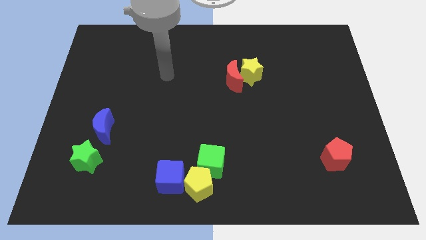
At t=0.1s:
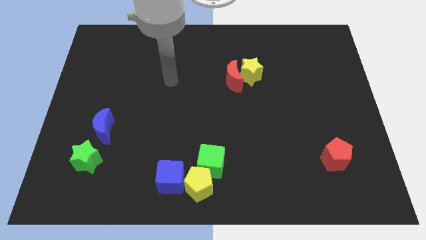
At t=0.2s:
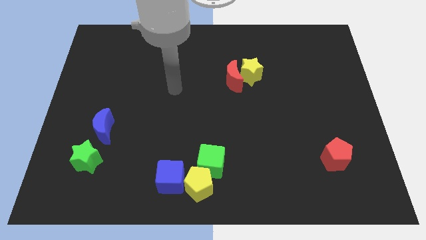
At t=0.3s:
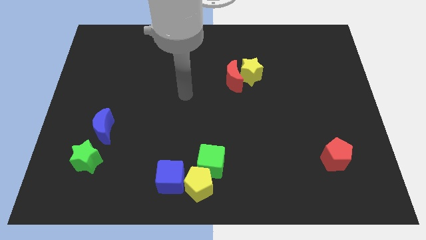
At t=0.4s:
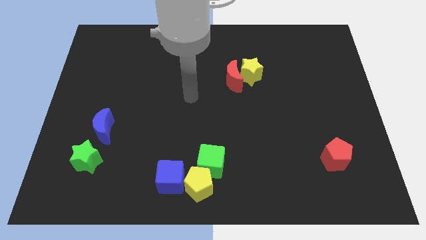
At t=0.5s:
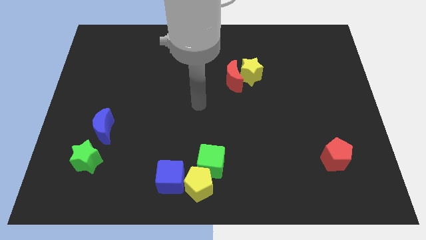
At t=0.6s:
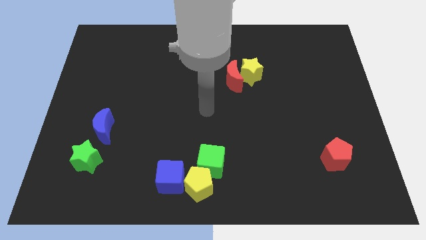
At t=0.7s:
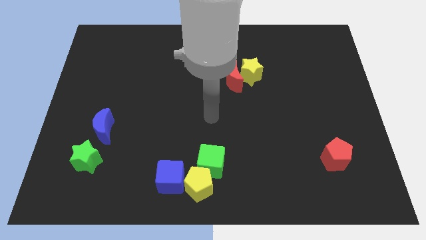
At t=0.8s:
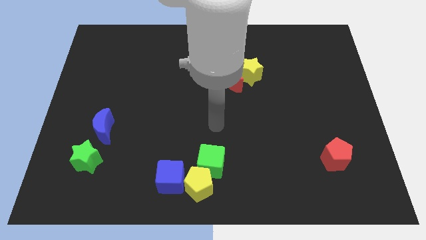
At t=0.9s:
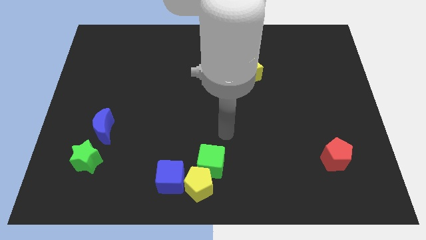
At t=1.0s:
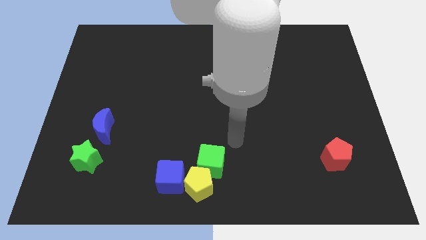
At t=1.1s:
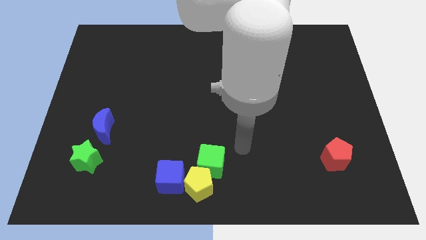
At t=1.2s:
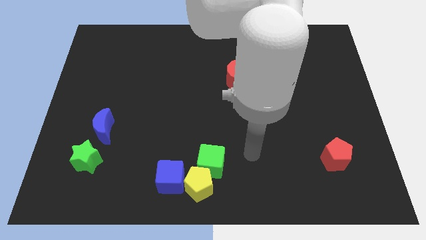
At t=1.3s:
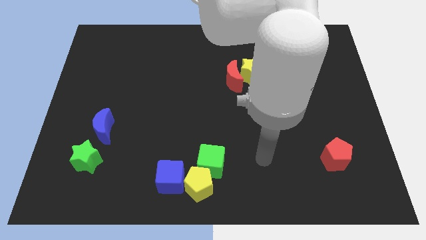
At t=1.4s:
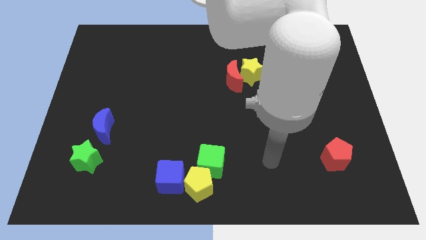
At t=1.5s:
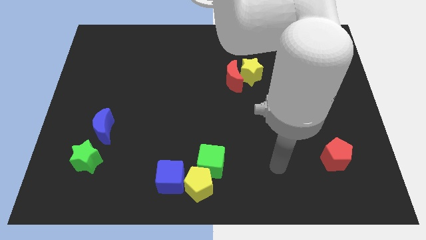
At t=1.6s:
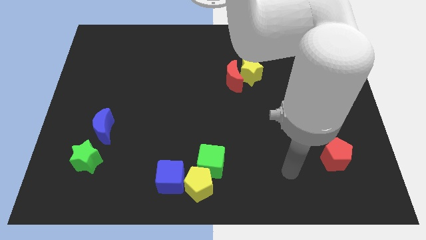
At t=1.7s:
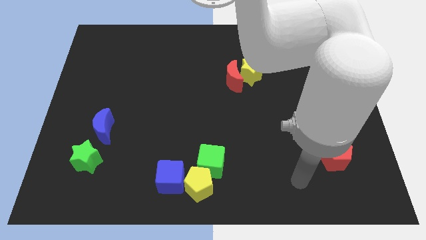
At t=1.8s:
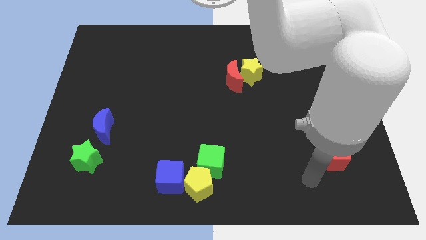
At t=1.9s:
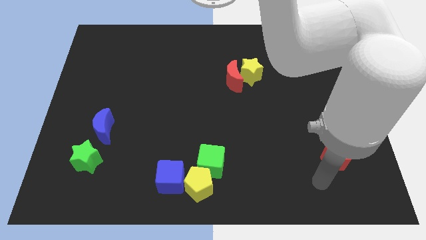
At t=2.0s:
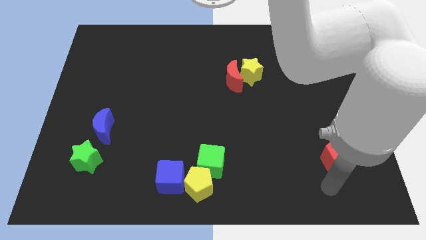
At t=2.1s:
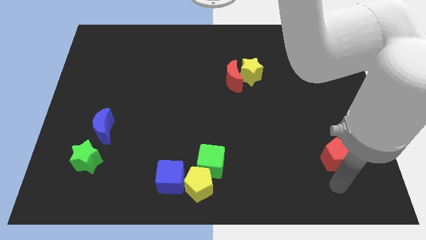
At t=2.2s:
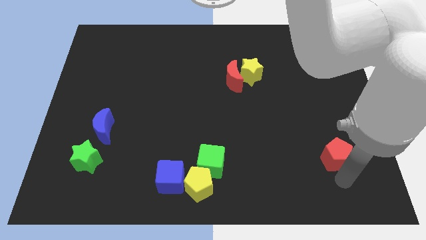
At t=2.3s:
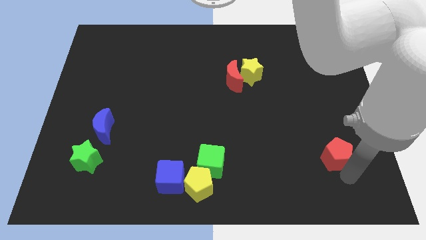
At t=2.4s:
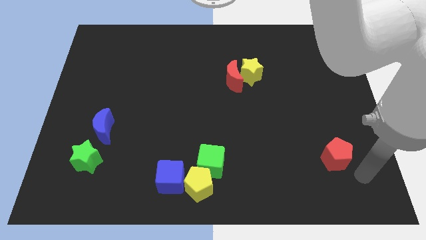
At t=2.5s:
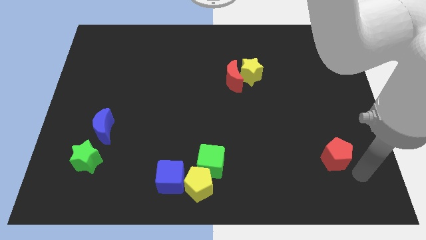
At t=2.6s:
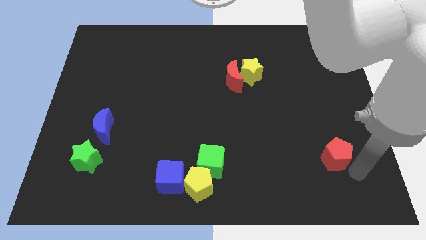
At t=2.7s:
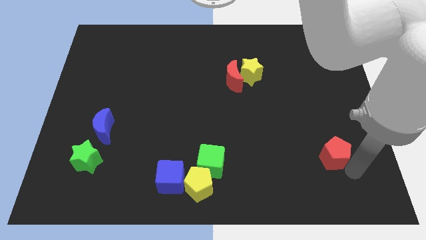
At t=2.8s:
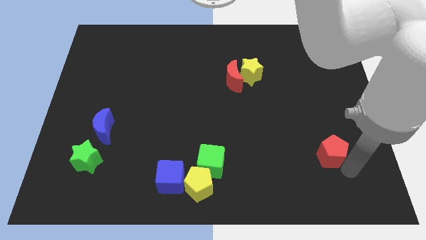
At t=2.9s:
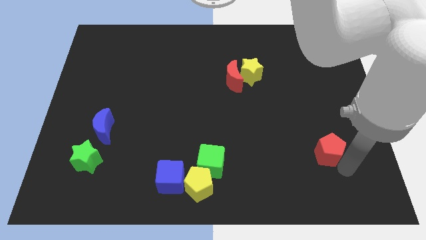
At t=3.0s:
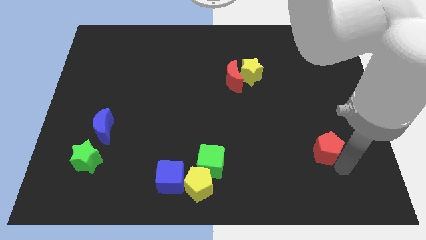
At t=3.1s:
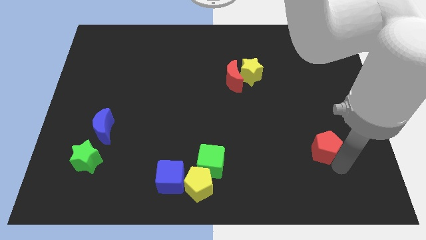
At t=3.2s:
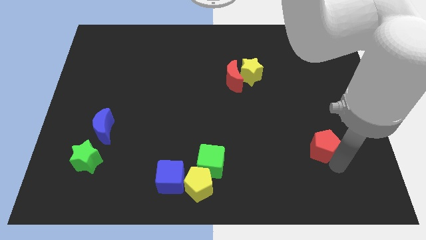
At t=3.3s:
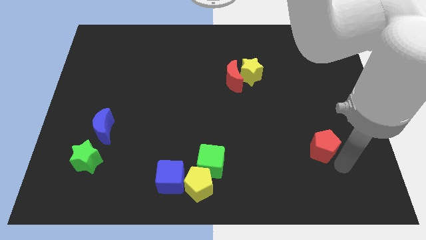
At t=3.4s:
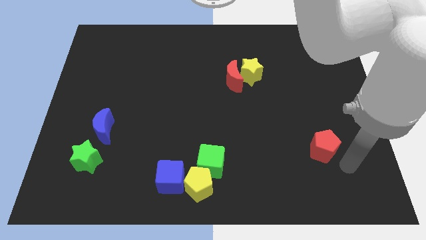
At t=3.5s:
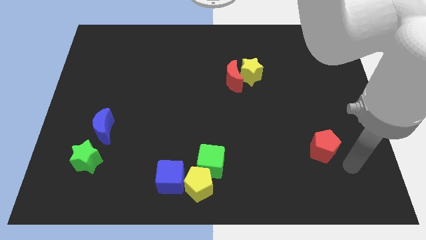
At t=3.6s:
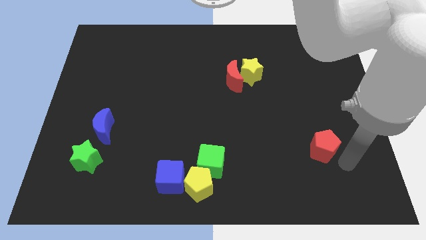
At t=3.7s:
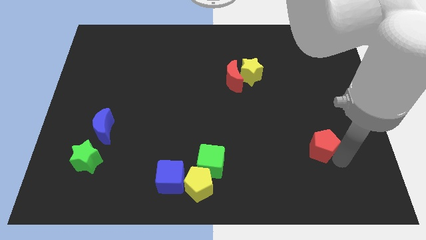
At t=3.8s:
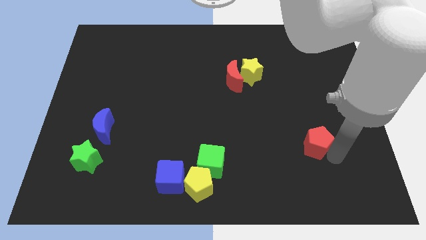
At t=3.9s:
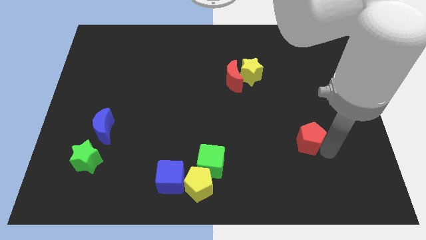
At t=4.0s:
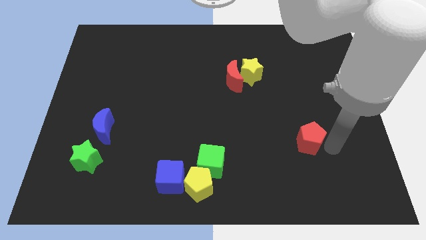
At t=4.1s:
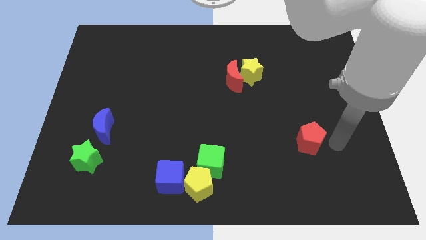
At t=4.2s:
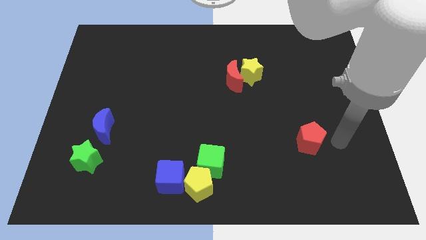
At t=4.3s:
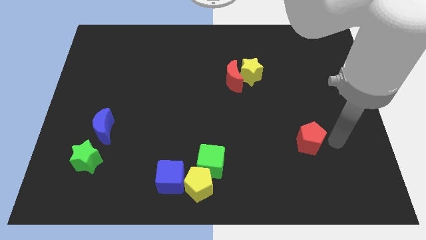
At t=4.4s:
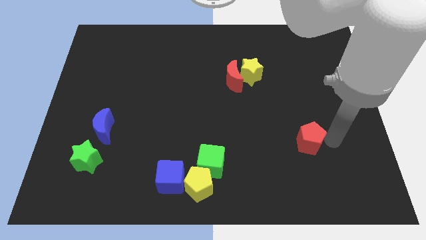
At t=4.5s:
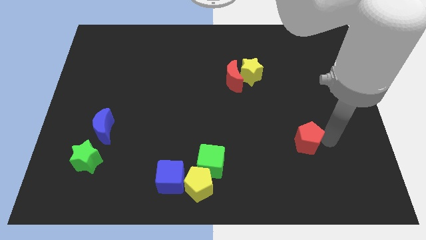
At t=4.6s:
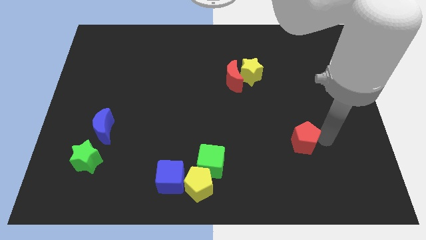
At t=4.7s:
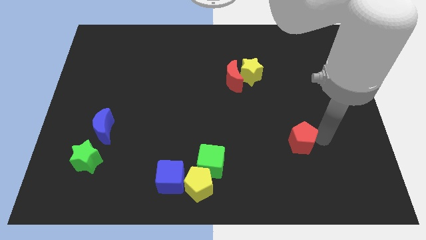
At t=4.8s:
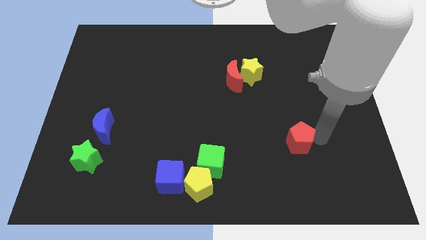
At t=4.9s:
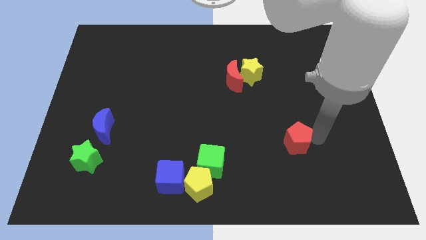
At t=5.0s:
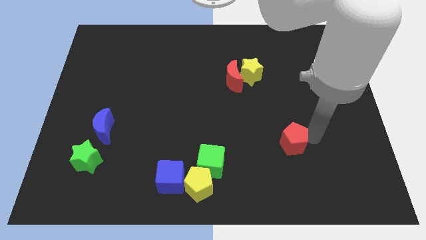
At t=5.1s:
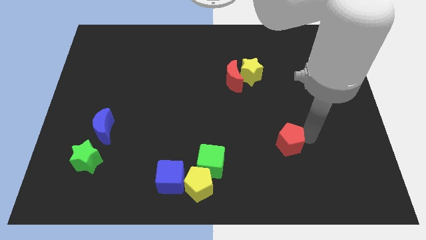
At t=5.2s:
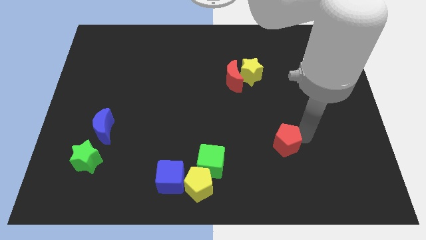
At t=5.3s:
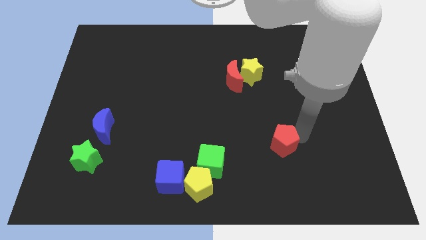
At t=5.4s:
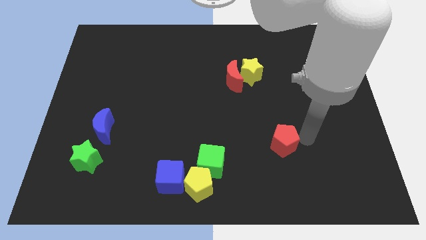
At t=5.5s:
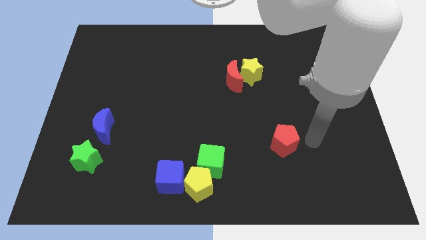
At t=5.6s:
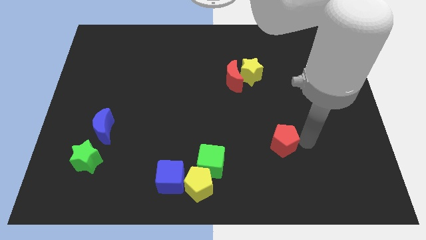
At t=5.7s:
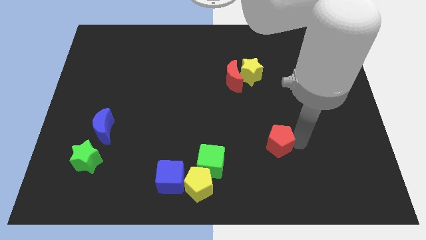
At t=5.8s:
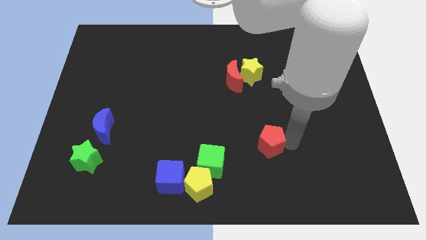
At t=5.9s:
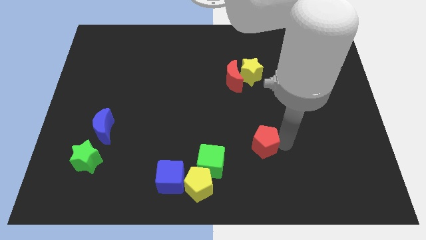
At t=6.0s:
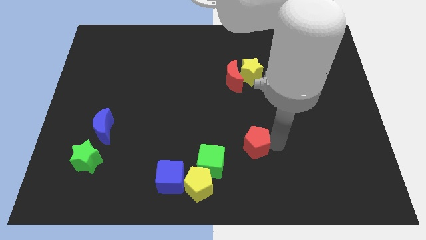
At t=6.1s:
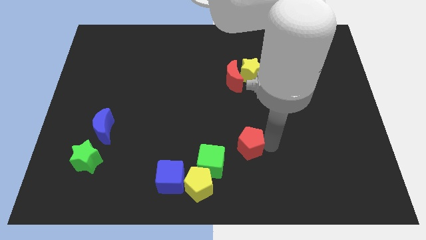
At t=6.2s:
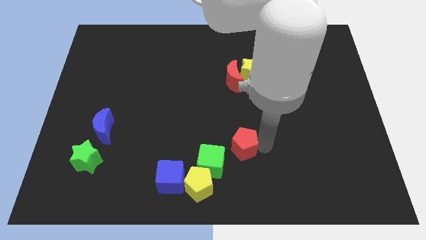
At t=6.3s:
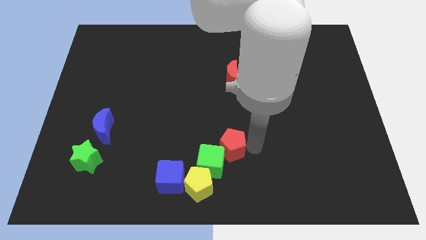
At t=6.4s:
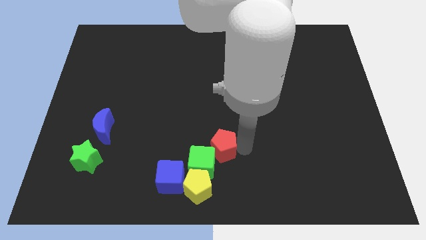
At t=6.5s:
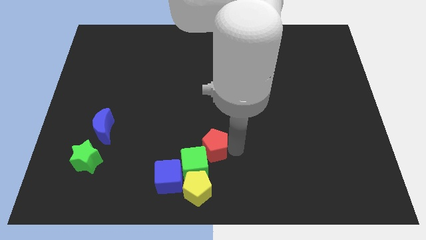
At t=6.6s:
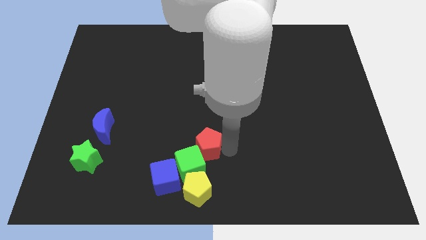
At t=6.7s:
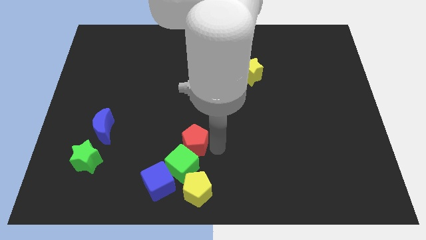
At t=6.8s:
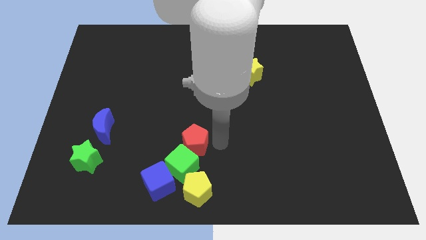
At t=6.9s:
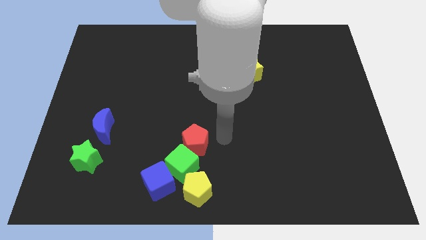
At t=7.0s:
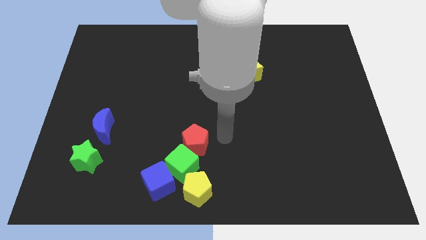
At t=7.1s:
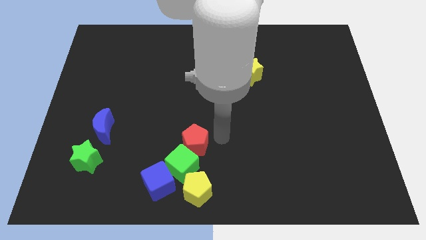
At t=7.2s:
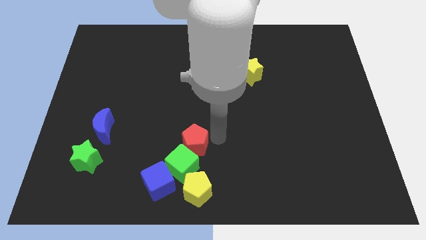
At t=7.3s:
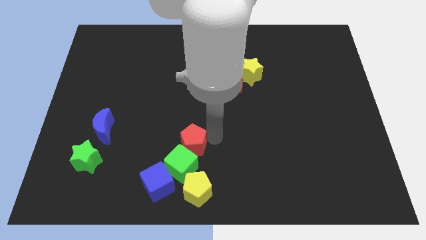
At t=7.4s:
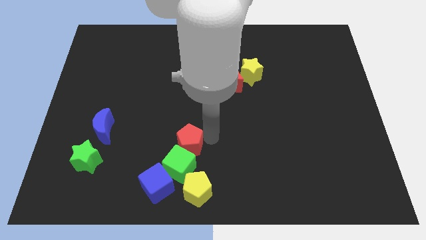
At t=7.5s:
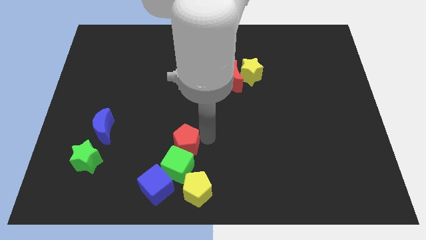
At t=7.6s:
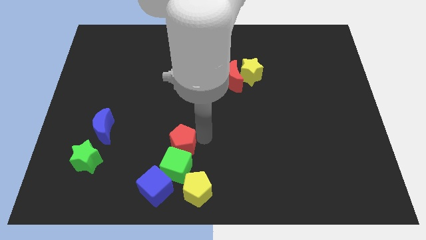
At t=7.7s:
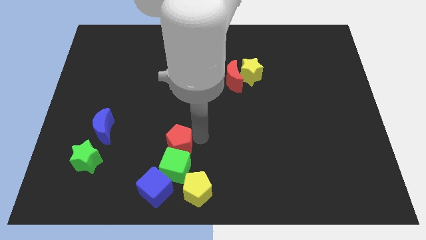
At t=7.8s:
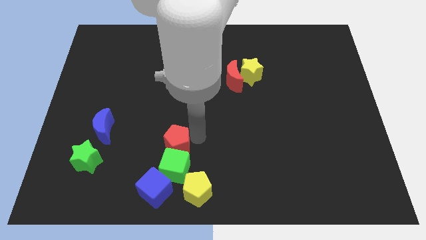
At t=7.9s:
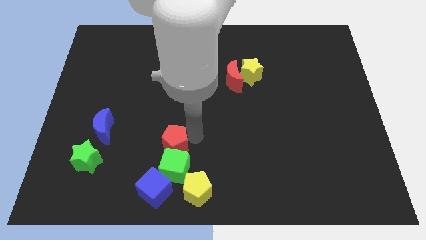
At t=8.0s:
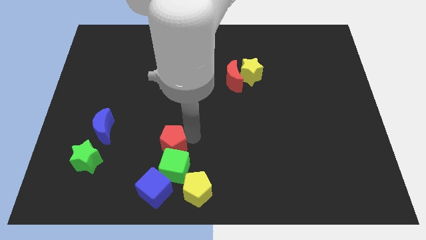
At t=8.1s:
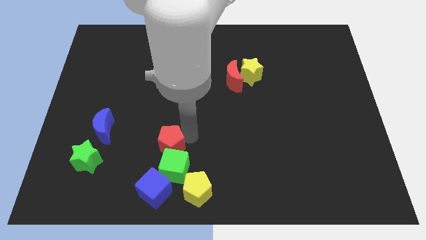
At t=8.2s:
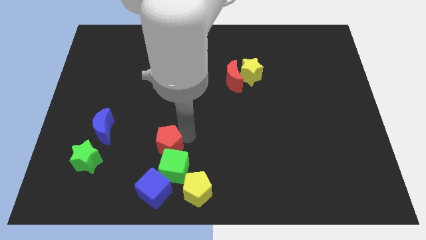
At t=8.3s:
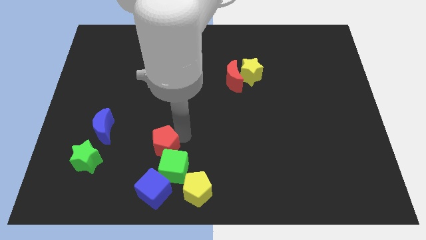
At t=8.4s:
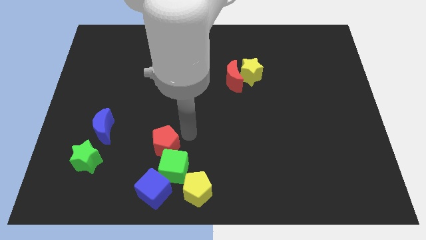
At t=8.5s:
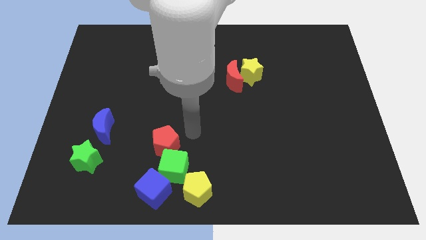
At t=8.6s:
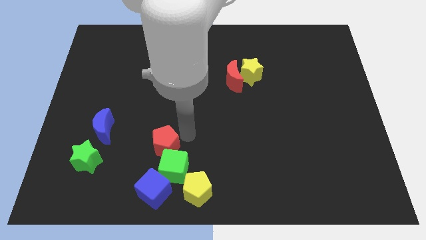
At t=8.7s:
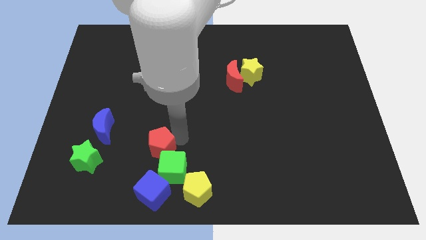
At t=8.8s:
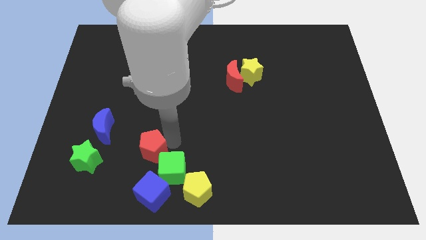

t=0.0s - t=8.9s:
put the red pentagon right of the green star
